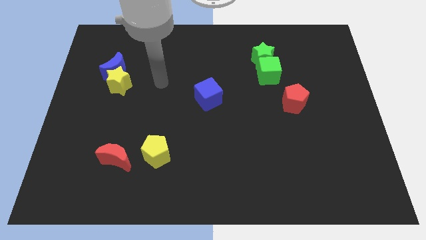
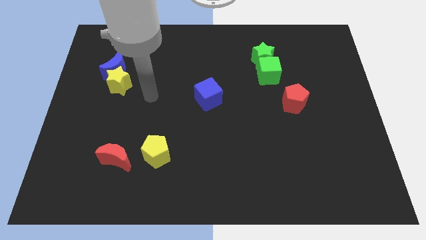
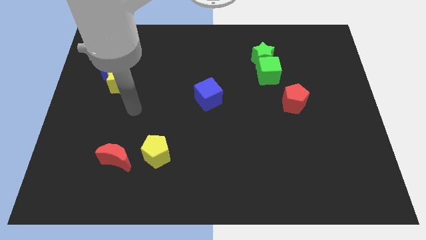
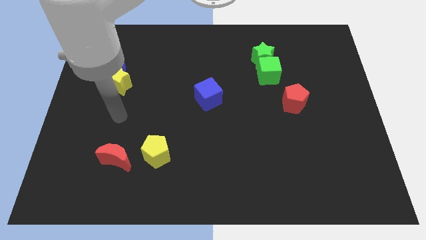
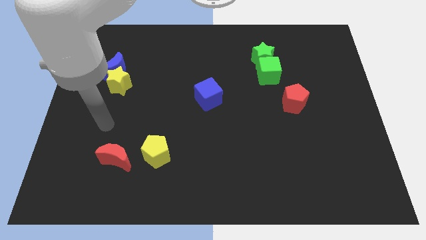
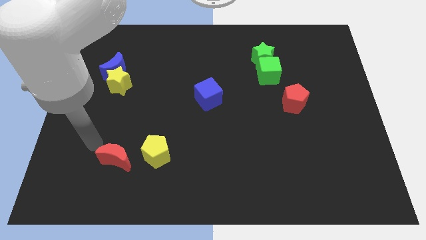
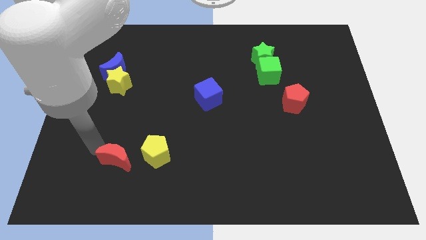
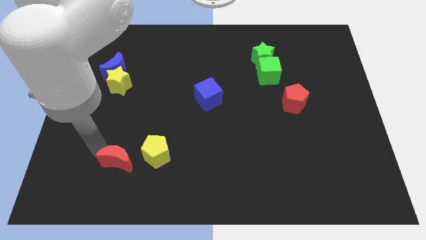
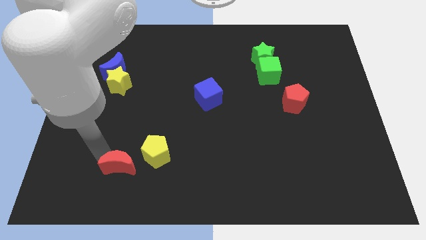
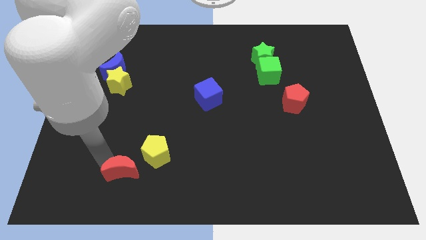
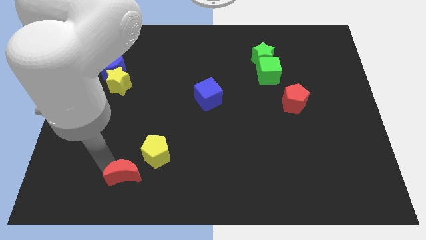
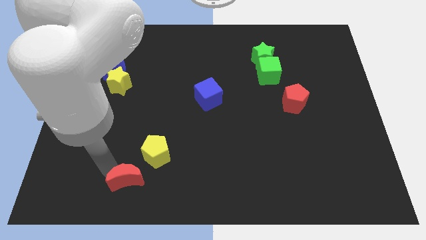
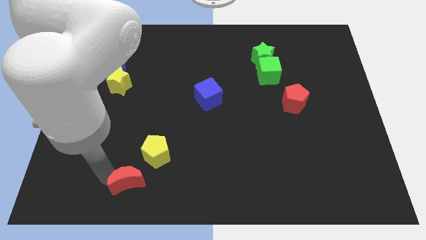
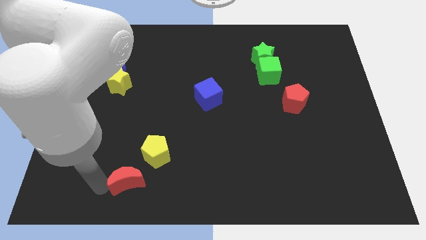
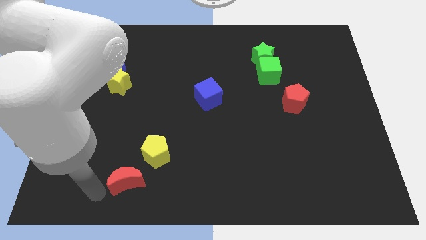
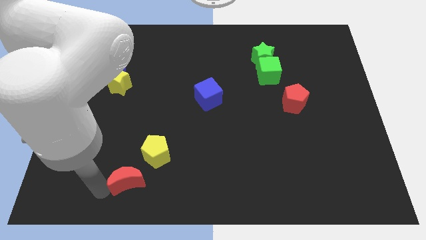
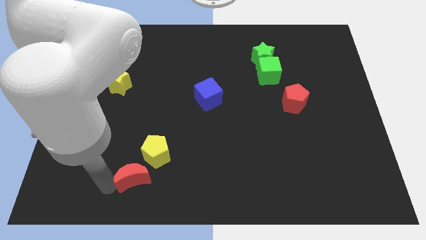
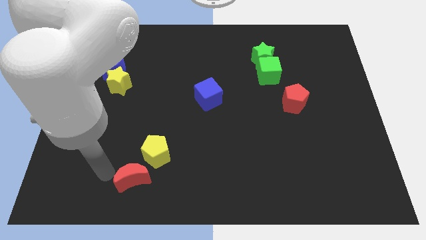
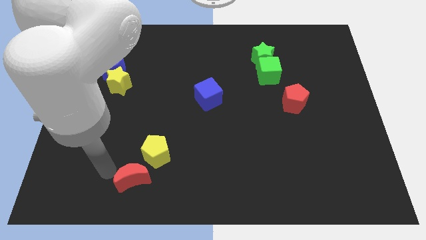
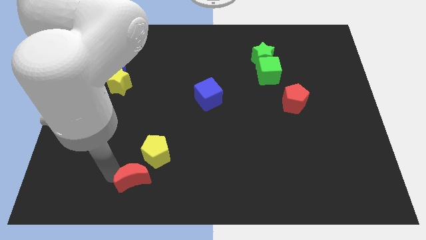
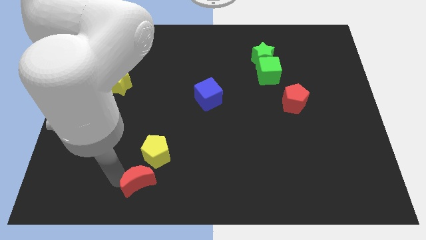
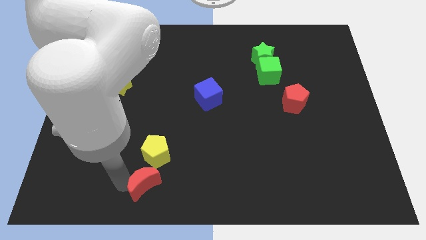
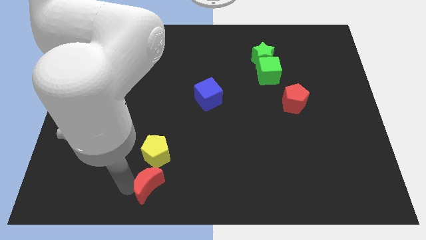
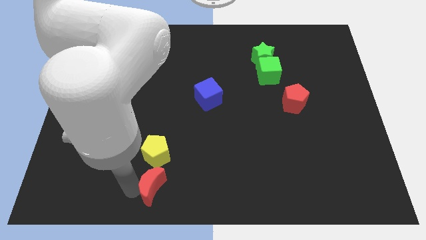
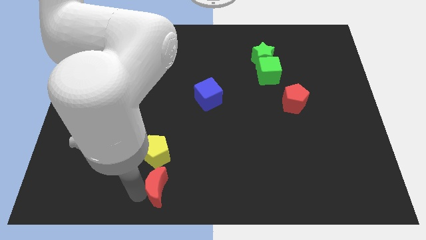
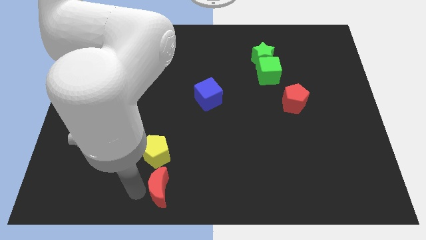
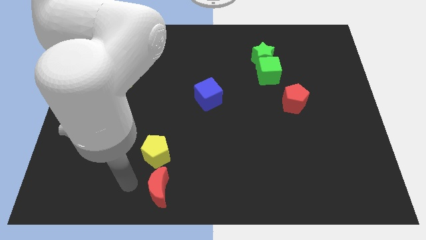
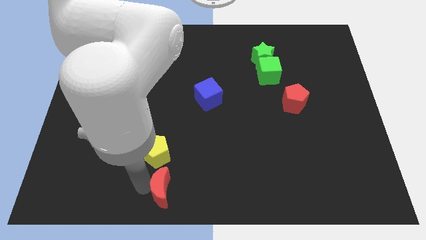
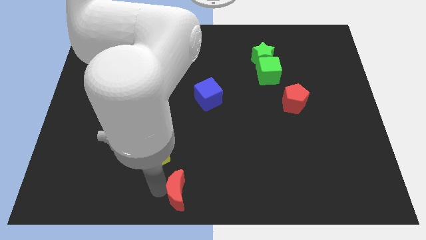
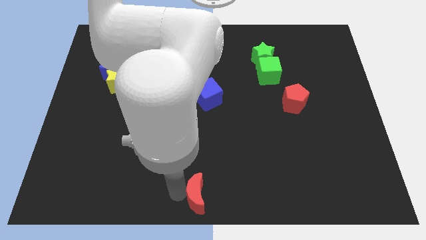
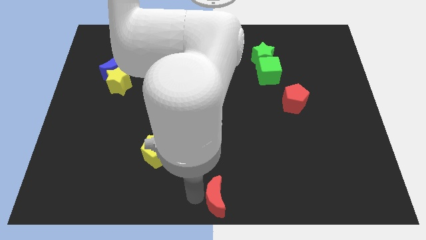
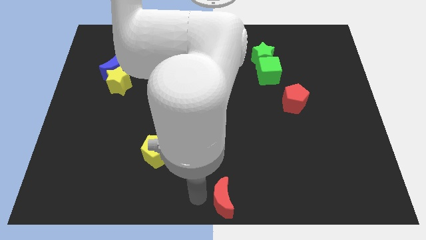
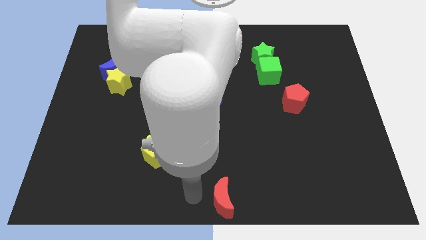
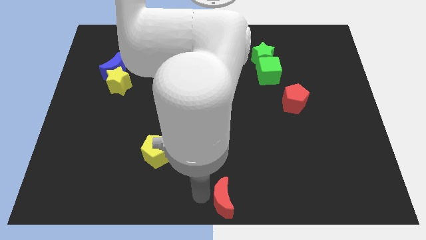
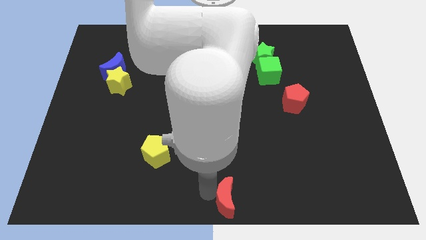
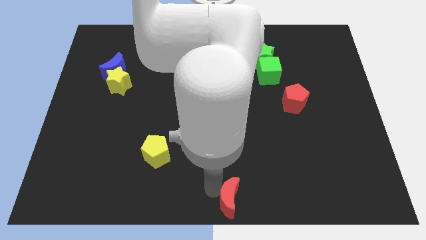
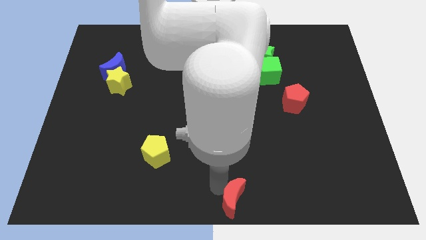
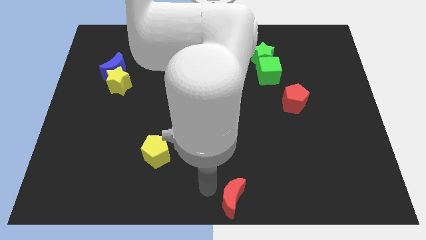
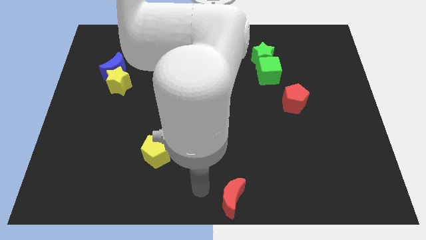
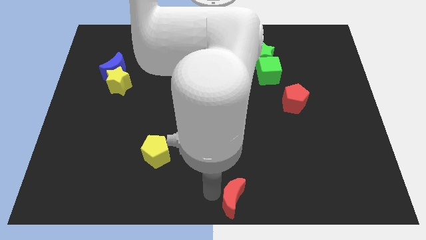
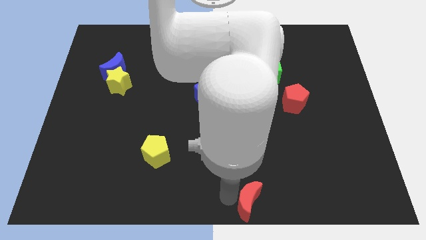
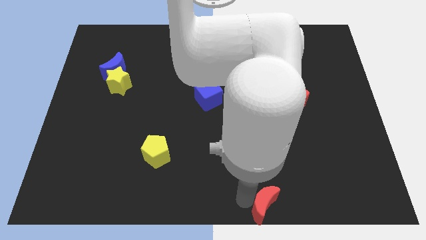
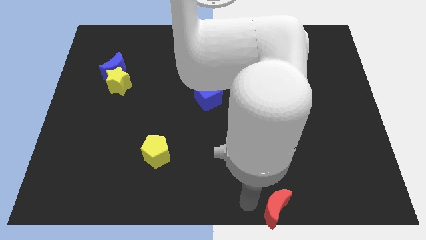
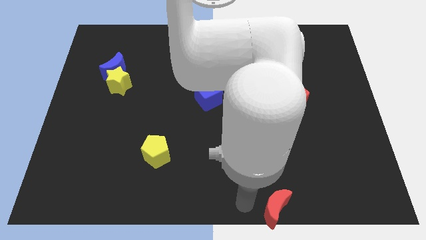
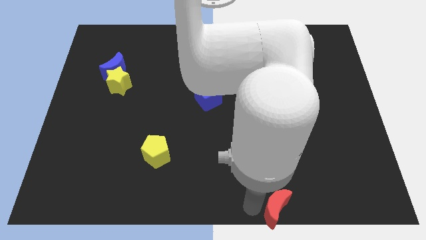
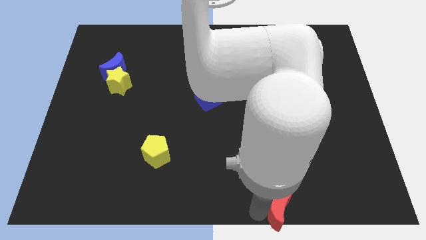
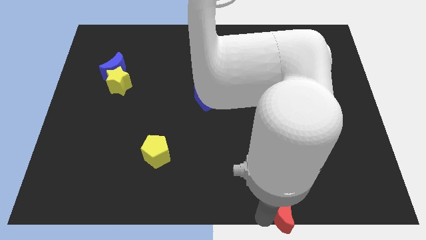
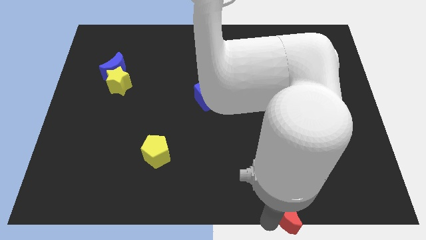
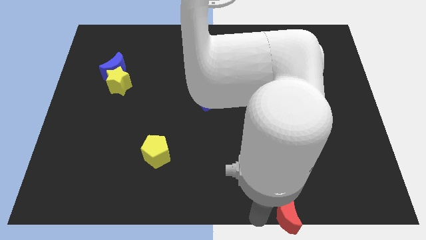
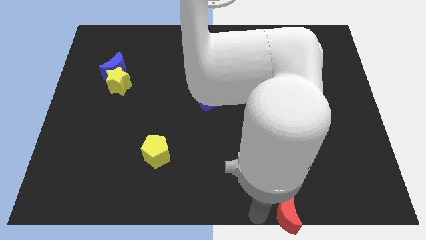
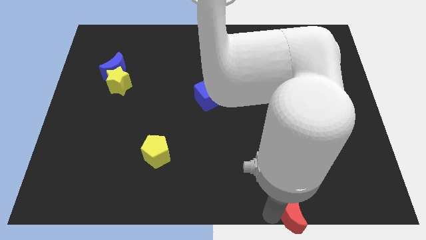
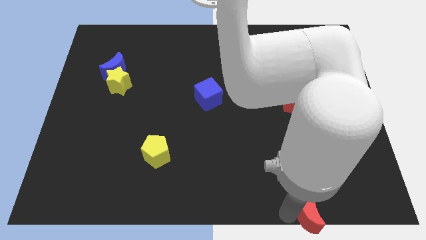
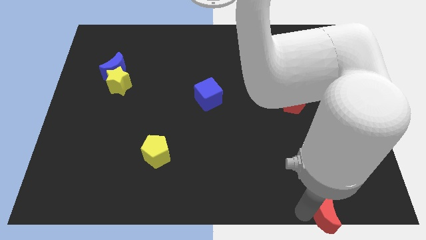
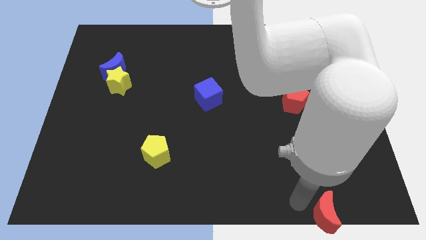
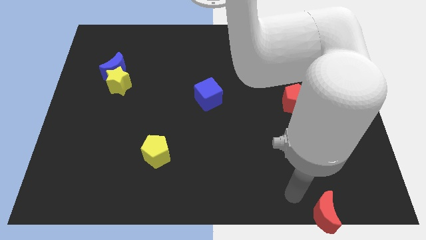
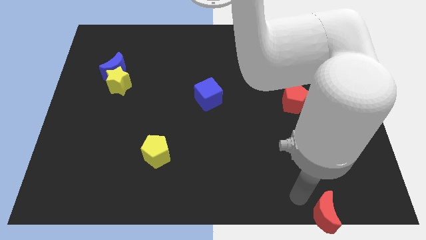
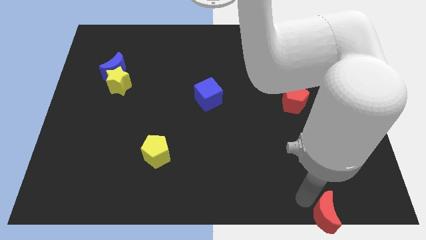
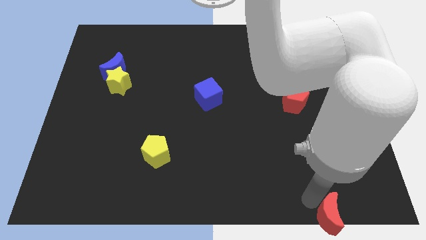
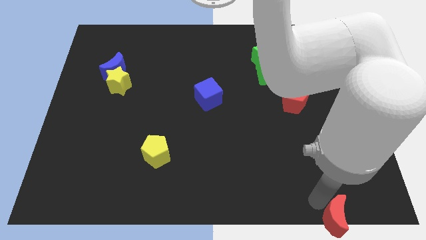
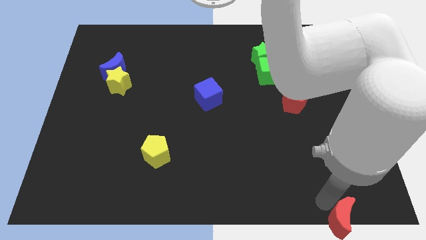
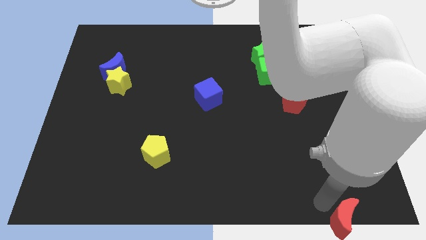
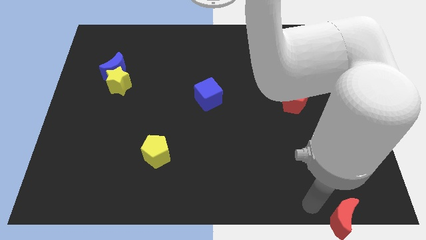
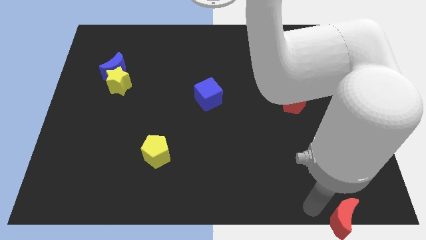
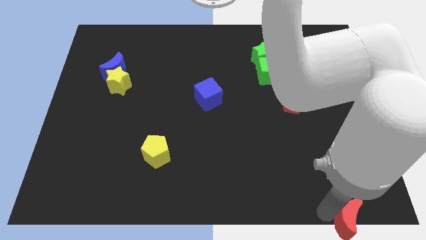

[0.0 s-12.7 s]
move the red moon to the bottom right corner

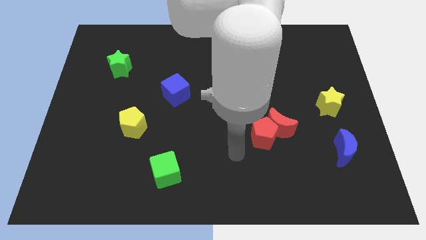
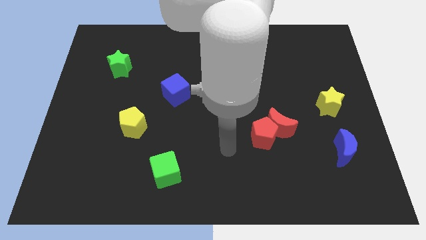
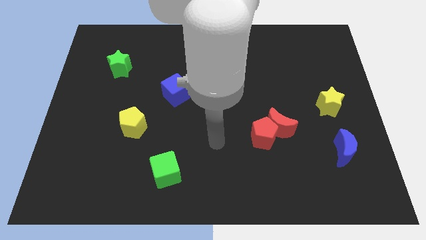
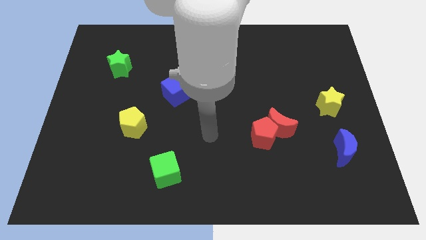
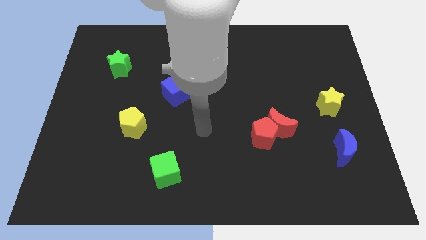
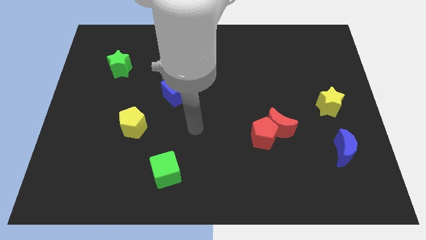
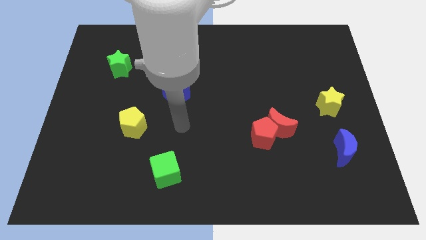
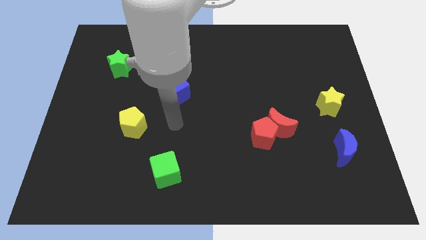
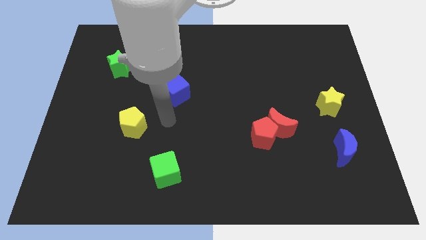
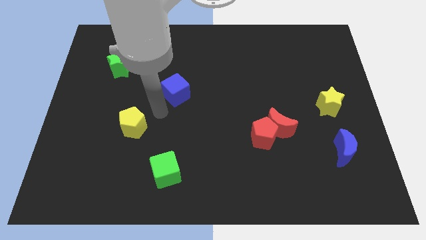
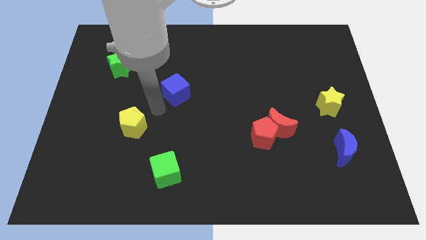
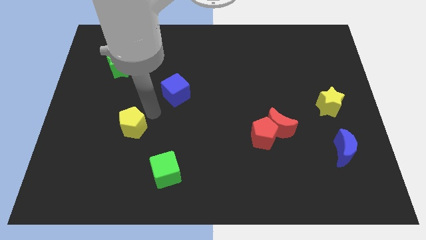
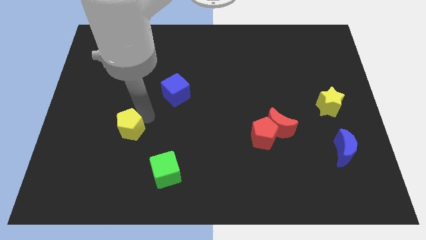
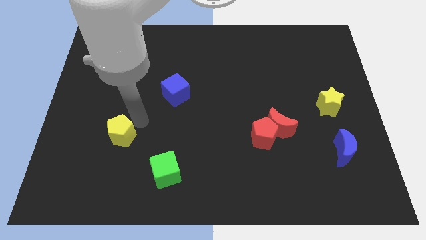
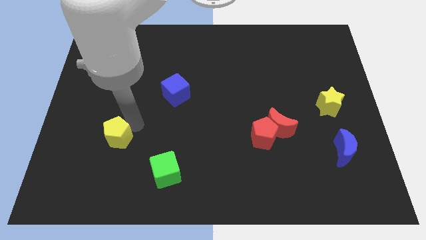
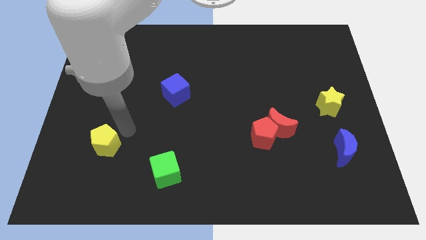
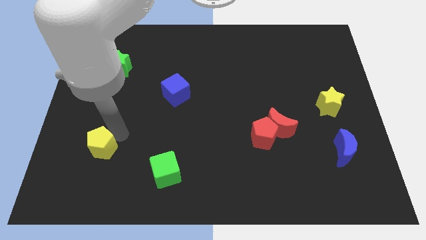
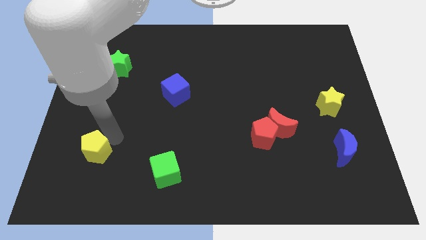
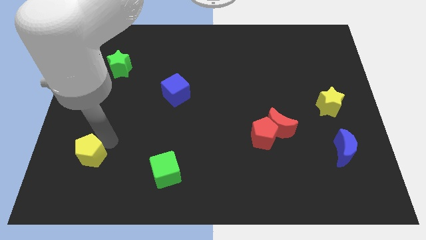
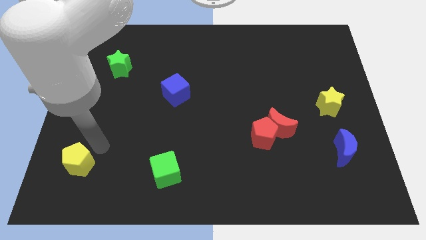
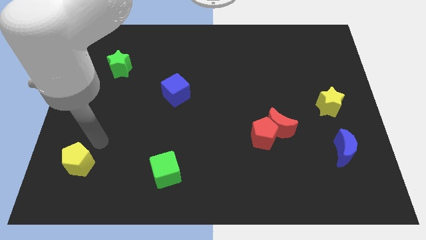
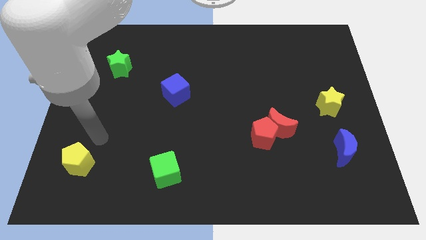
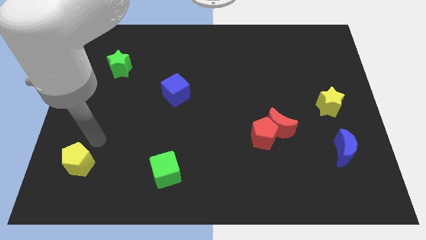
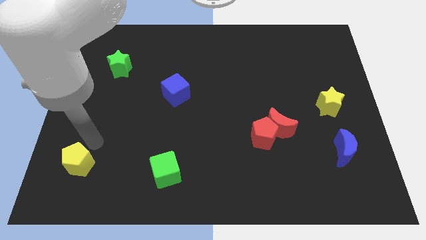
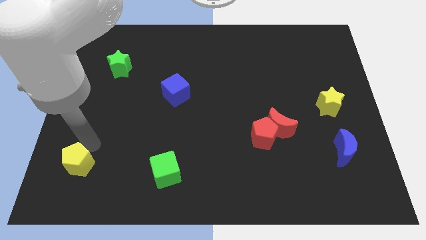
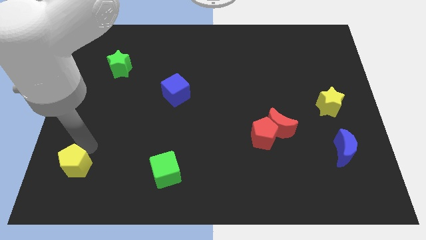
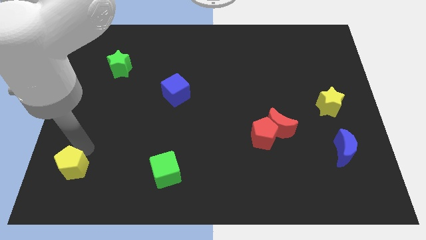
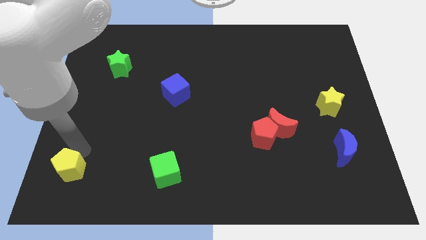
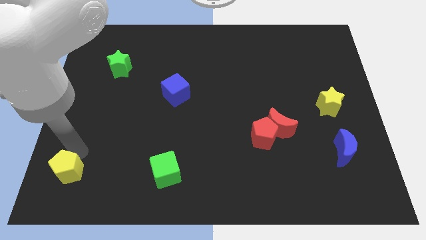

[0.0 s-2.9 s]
slide the yellow pentagon to the lower left corner
